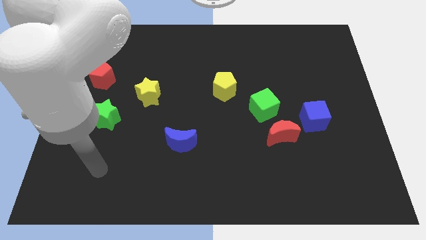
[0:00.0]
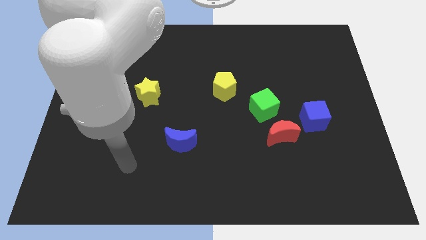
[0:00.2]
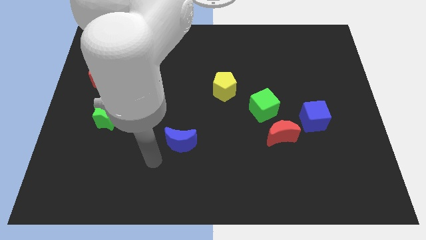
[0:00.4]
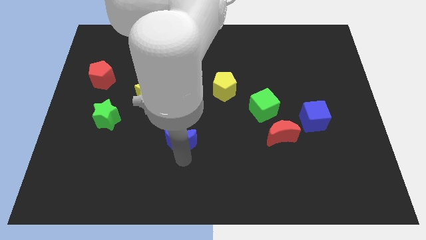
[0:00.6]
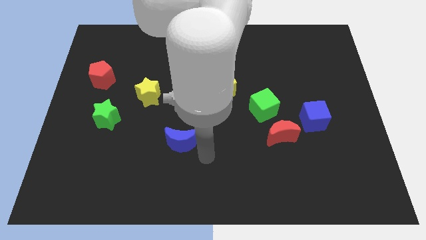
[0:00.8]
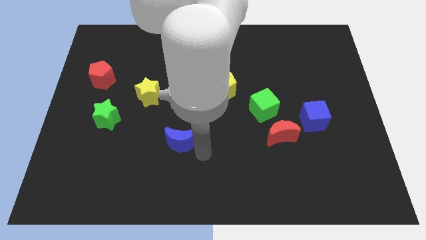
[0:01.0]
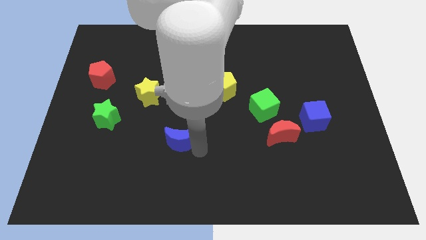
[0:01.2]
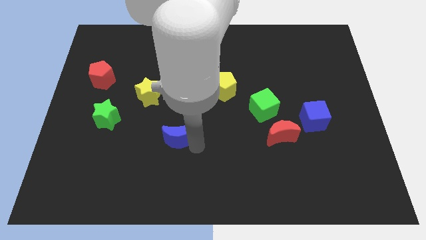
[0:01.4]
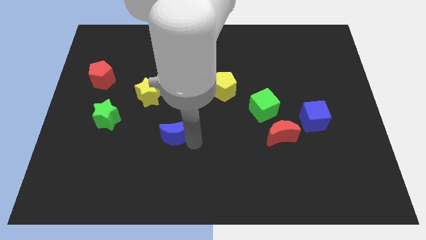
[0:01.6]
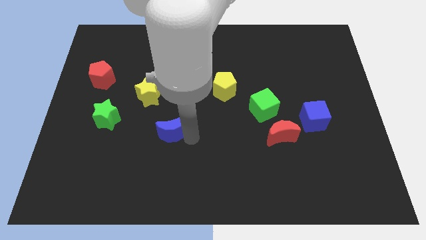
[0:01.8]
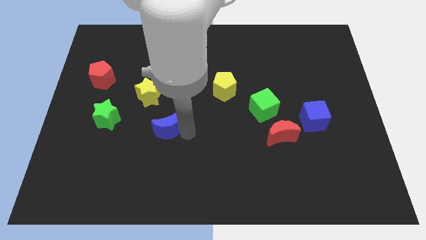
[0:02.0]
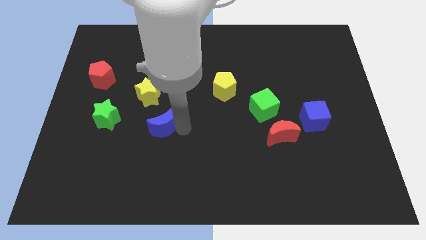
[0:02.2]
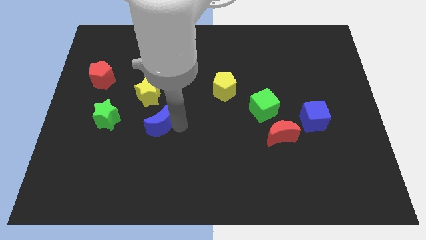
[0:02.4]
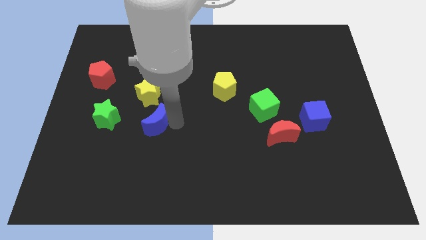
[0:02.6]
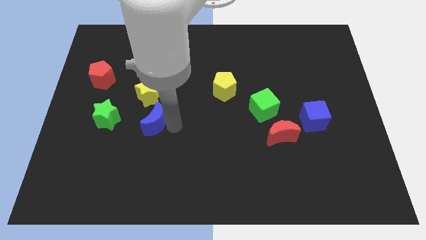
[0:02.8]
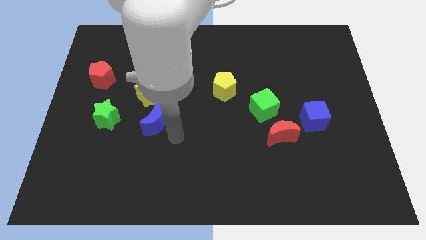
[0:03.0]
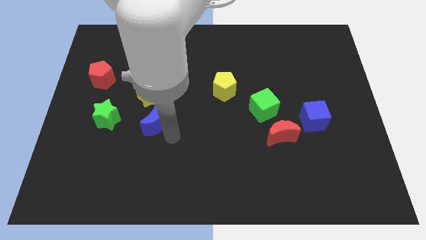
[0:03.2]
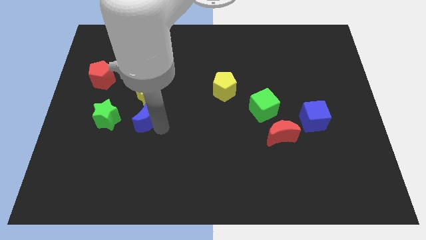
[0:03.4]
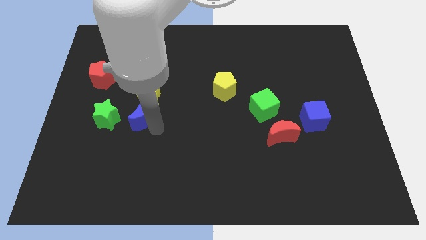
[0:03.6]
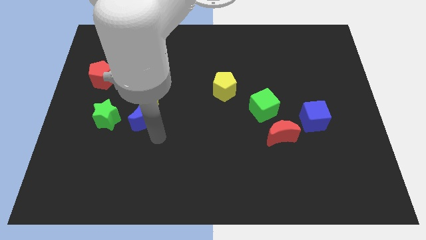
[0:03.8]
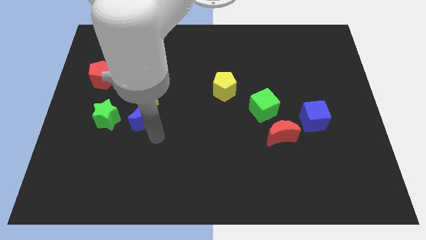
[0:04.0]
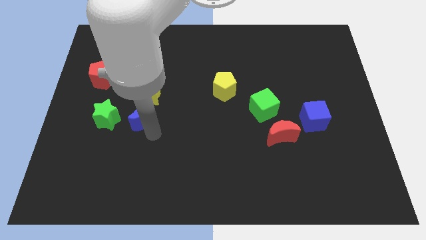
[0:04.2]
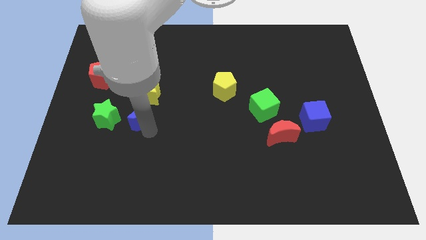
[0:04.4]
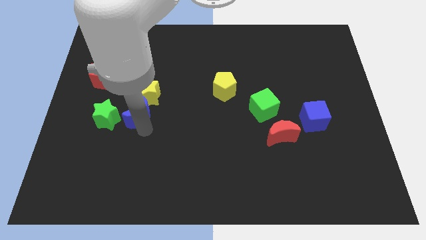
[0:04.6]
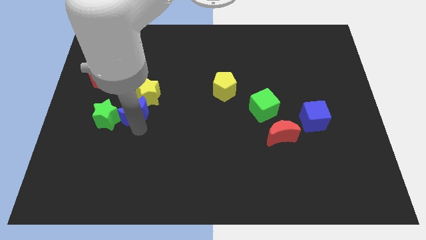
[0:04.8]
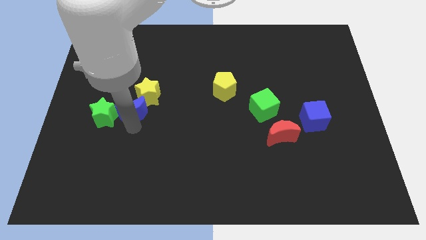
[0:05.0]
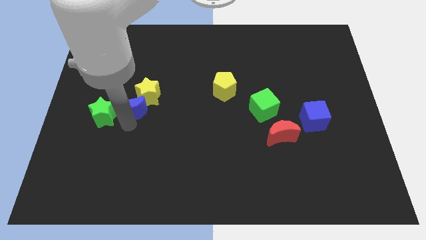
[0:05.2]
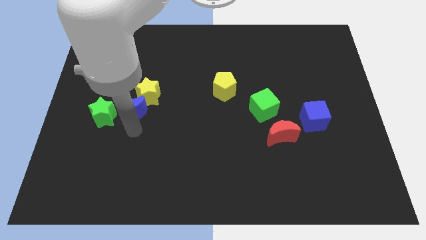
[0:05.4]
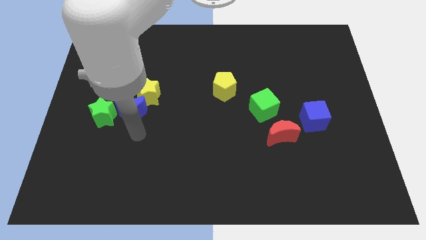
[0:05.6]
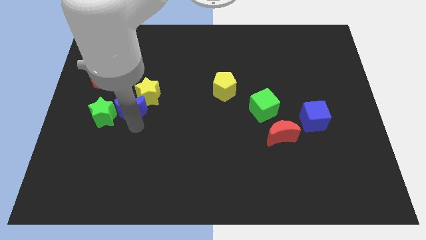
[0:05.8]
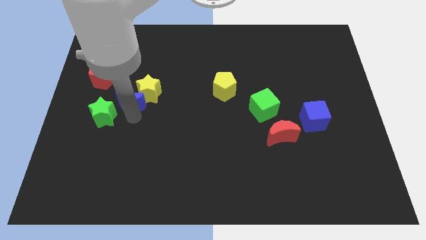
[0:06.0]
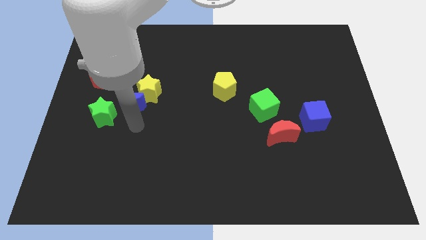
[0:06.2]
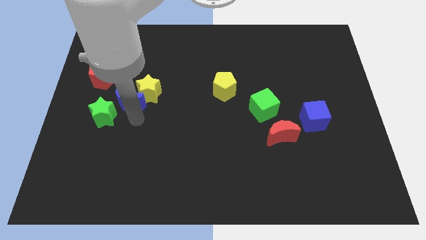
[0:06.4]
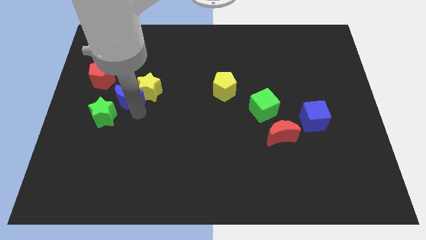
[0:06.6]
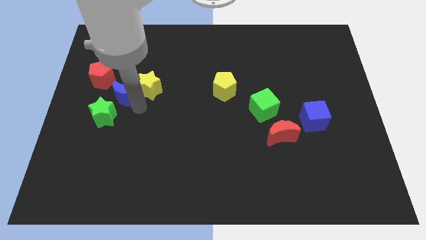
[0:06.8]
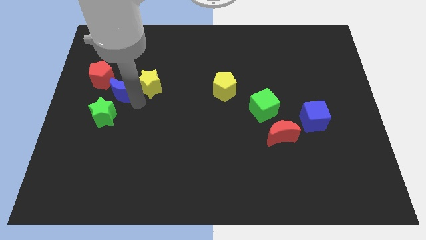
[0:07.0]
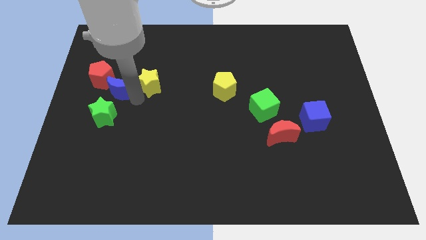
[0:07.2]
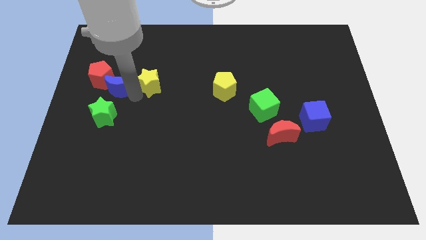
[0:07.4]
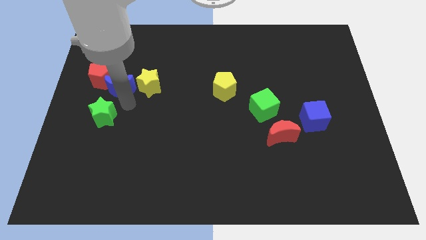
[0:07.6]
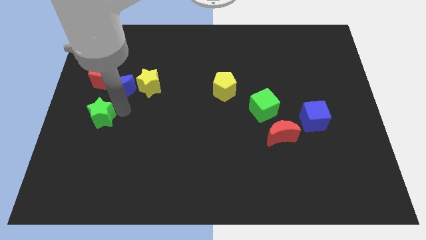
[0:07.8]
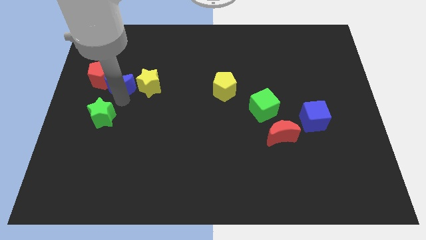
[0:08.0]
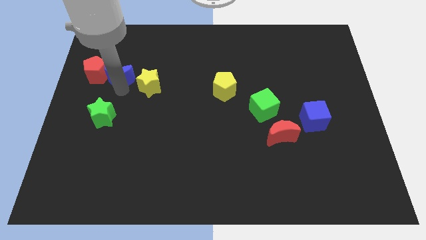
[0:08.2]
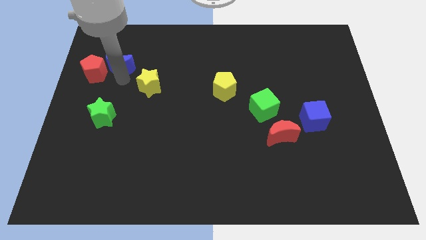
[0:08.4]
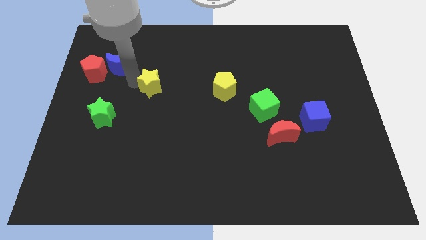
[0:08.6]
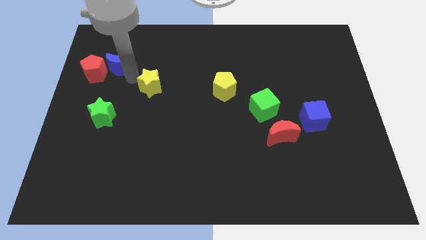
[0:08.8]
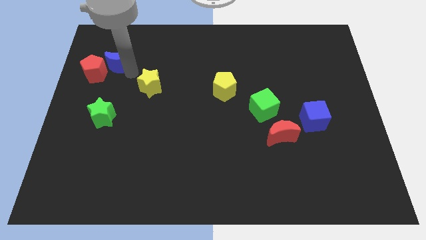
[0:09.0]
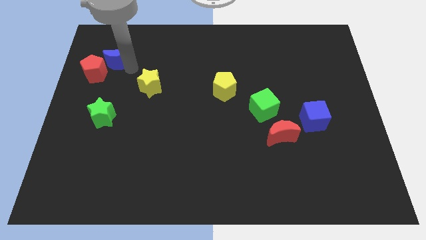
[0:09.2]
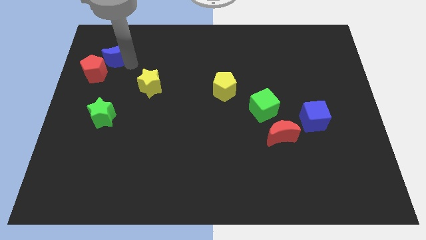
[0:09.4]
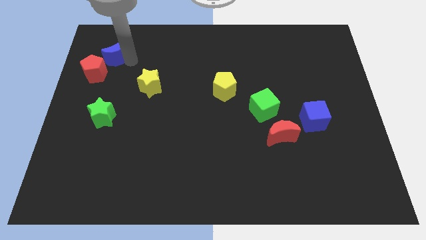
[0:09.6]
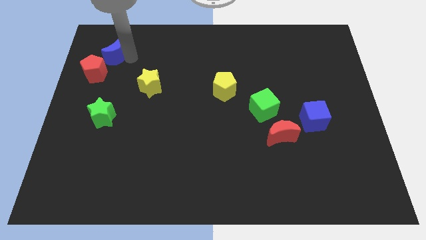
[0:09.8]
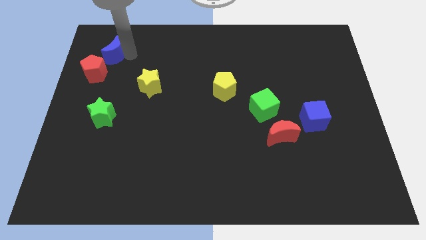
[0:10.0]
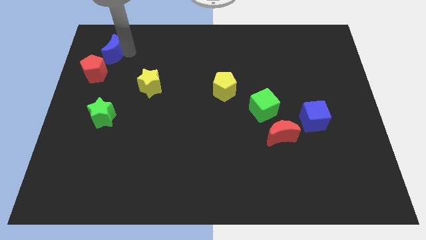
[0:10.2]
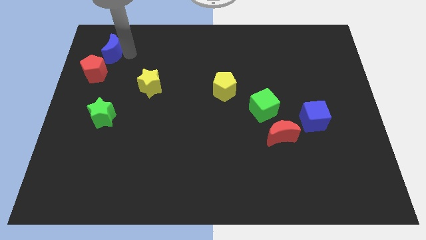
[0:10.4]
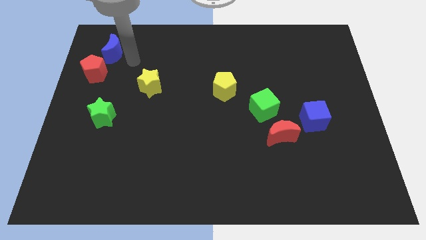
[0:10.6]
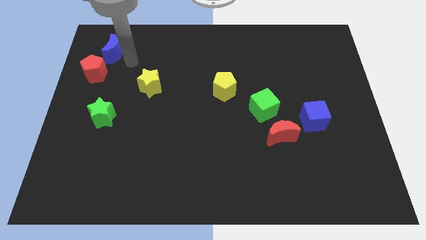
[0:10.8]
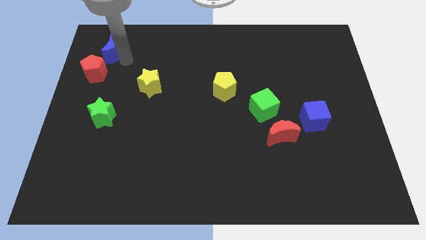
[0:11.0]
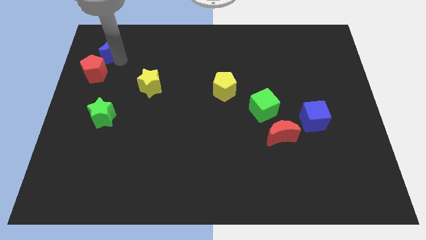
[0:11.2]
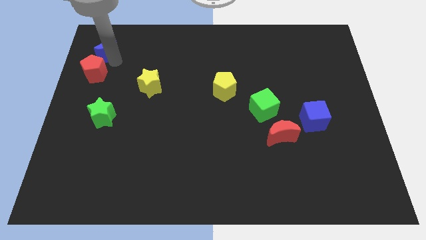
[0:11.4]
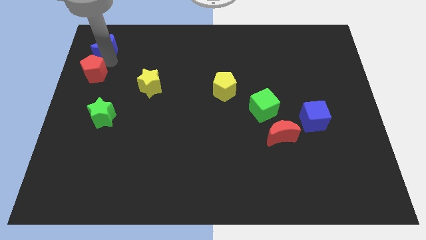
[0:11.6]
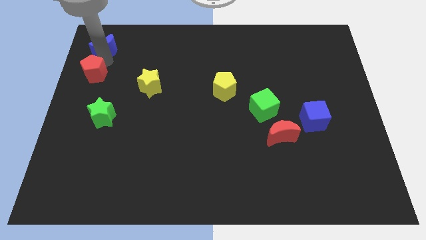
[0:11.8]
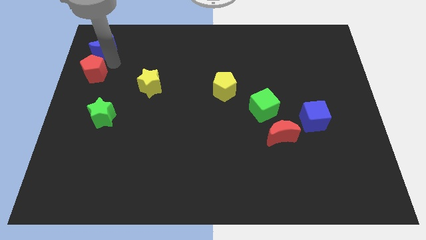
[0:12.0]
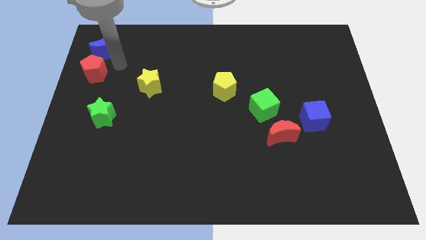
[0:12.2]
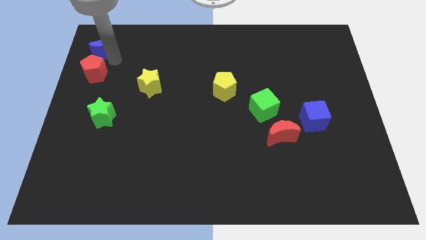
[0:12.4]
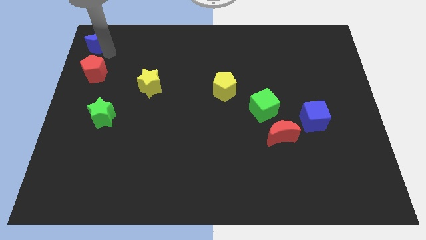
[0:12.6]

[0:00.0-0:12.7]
push the blue moon to the top left of the board

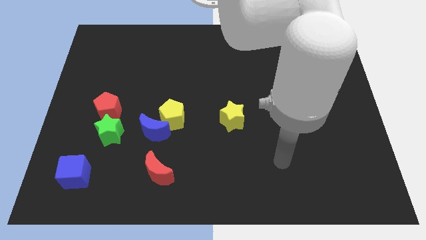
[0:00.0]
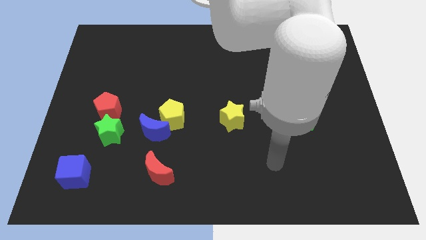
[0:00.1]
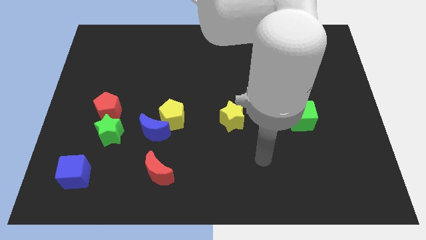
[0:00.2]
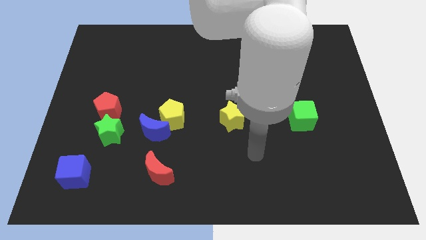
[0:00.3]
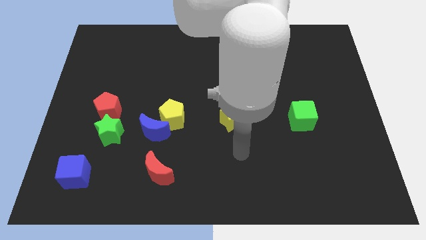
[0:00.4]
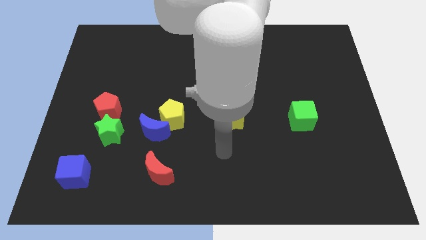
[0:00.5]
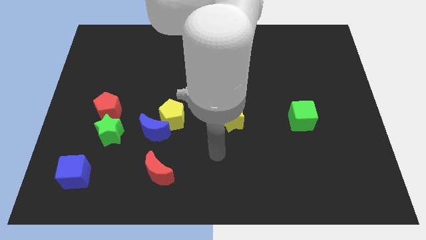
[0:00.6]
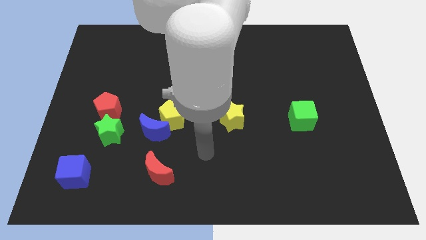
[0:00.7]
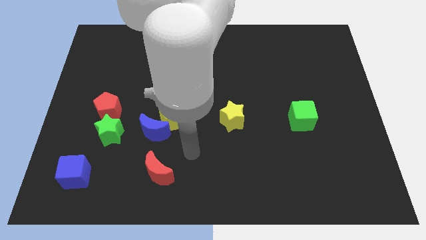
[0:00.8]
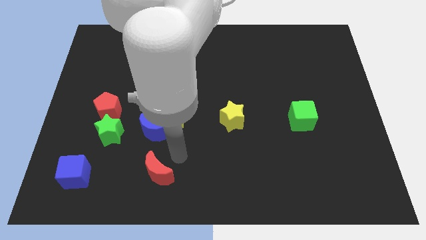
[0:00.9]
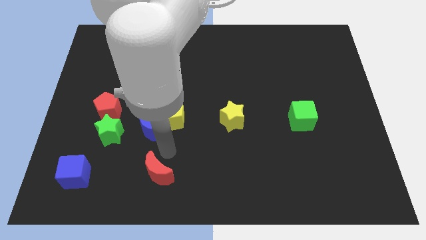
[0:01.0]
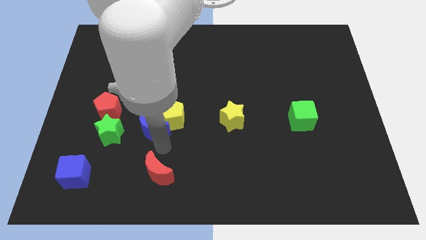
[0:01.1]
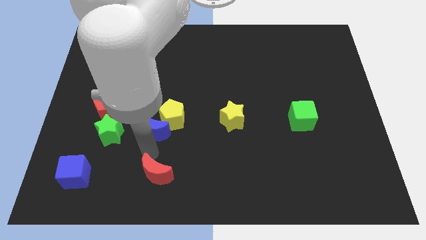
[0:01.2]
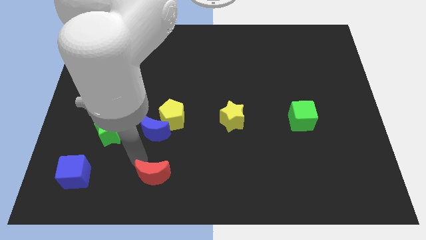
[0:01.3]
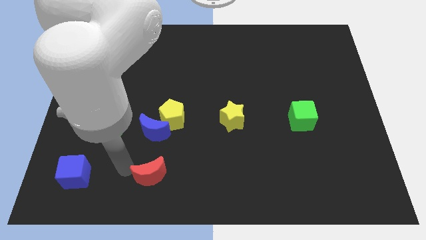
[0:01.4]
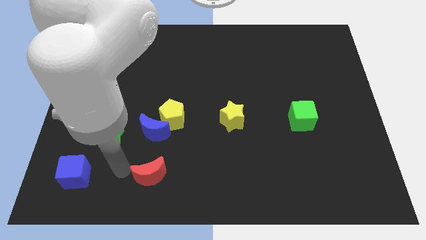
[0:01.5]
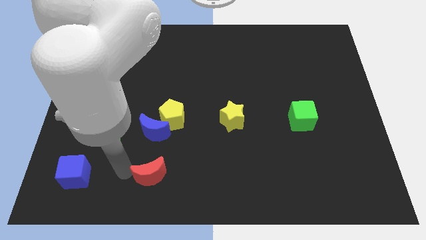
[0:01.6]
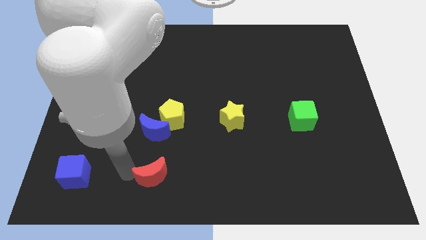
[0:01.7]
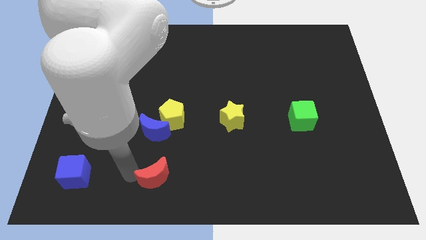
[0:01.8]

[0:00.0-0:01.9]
slide the red moon to the bottom
